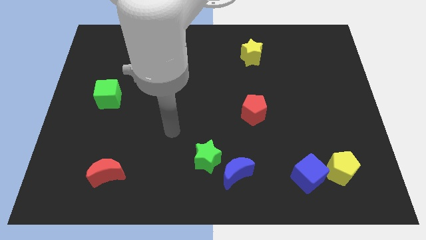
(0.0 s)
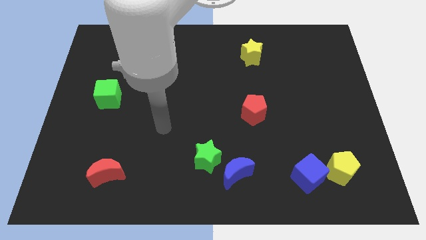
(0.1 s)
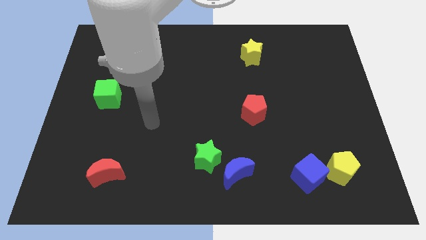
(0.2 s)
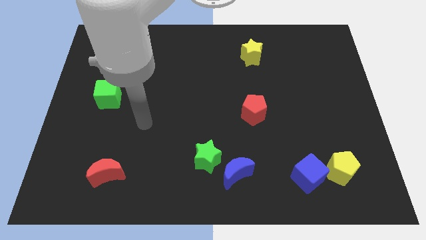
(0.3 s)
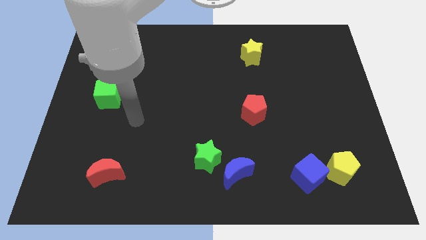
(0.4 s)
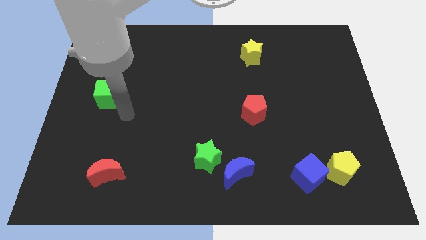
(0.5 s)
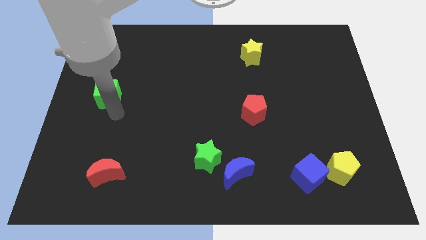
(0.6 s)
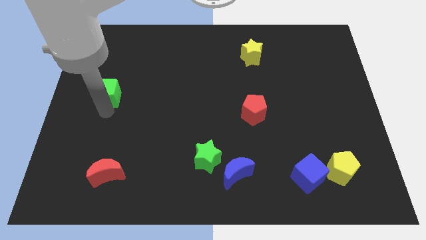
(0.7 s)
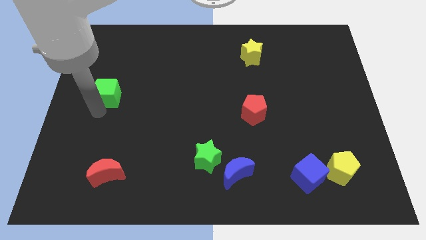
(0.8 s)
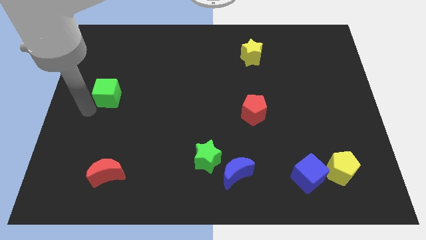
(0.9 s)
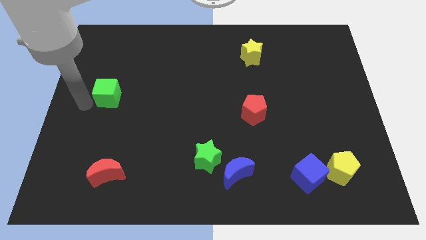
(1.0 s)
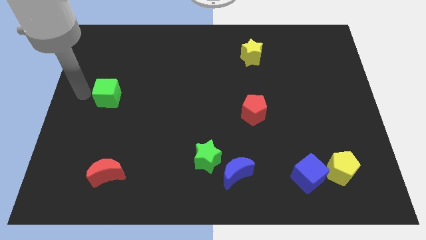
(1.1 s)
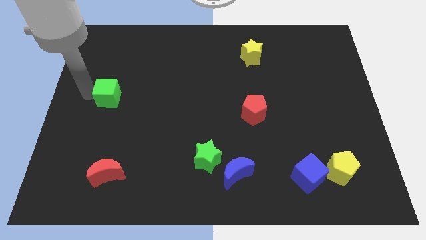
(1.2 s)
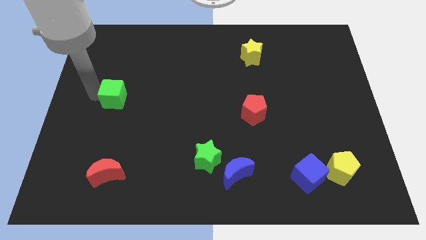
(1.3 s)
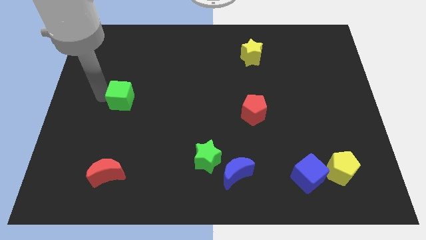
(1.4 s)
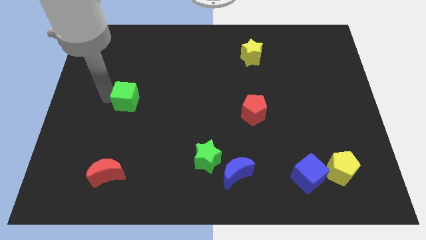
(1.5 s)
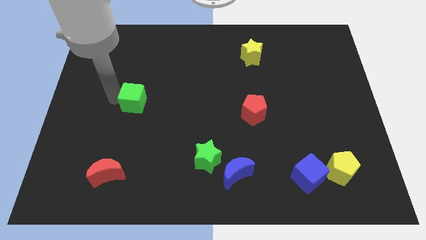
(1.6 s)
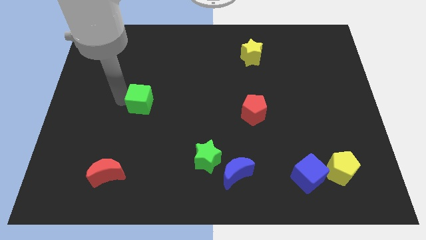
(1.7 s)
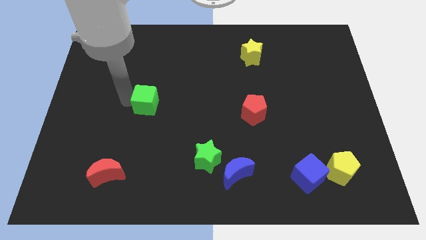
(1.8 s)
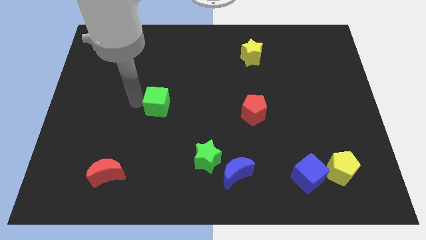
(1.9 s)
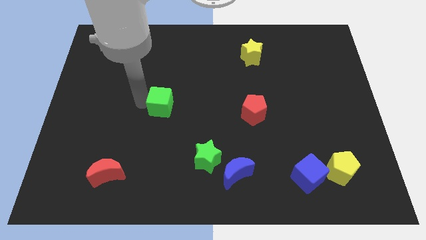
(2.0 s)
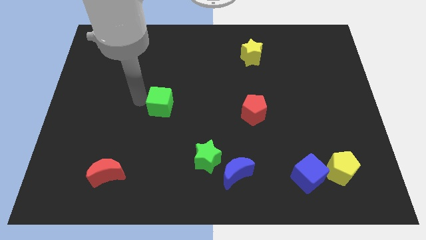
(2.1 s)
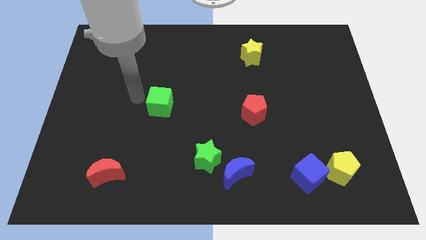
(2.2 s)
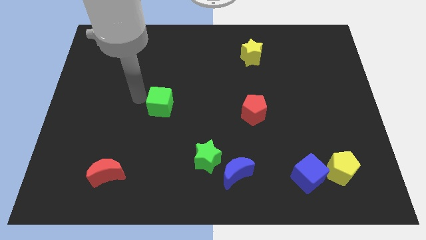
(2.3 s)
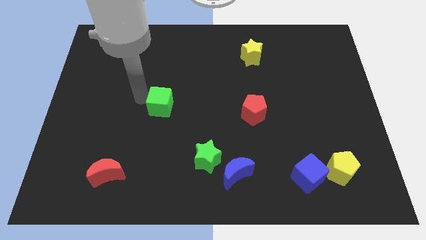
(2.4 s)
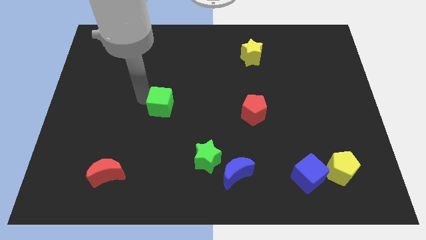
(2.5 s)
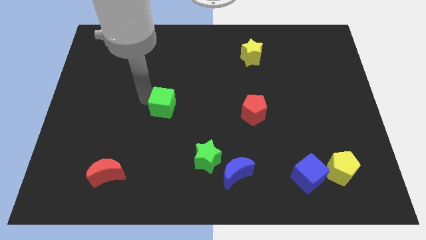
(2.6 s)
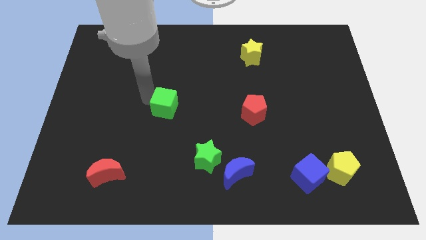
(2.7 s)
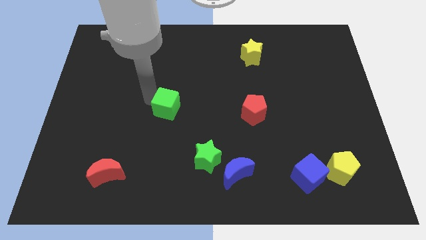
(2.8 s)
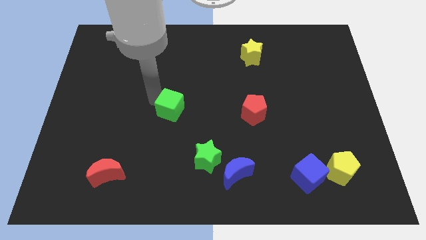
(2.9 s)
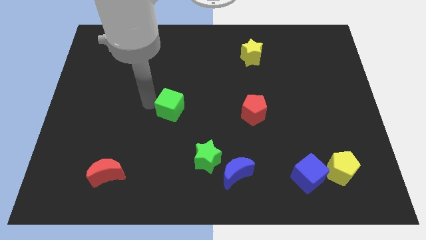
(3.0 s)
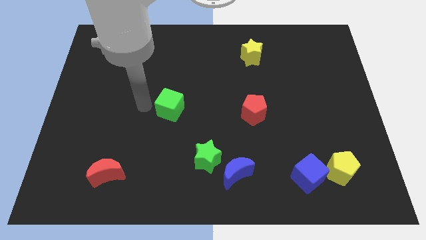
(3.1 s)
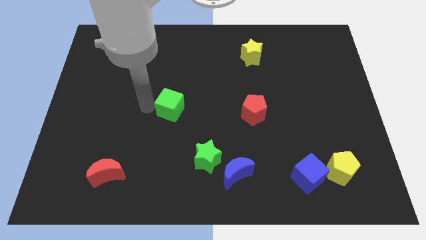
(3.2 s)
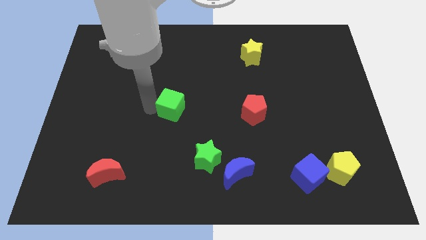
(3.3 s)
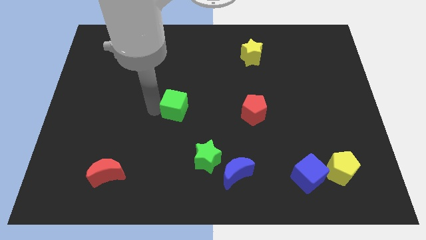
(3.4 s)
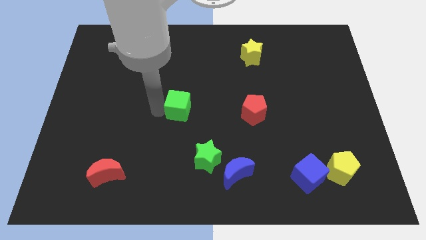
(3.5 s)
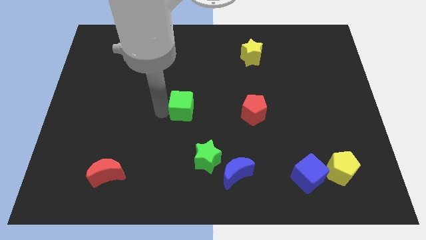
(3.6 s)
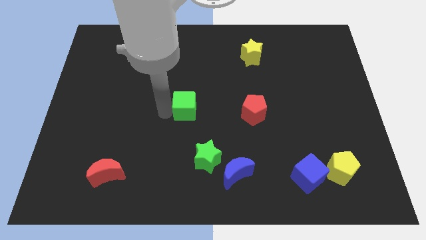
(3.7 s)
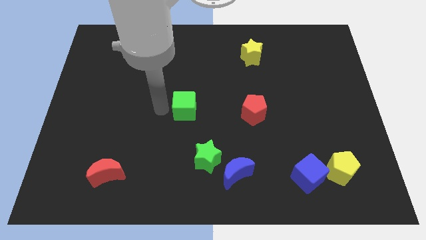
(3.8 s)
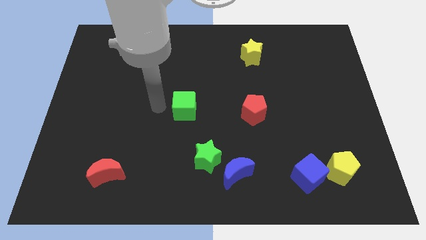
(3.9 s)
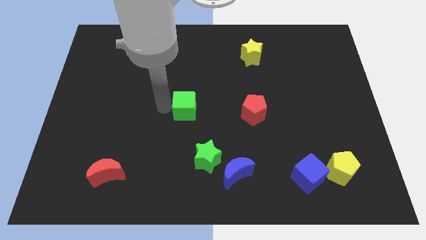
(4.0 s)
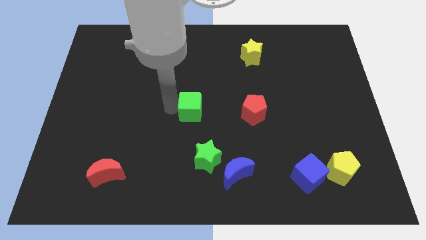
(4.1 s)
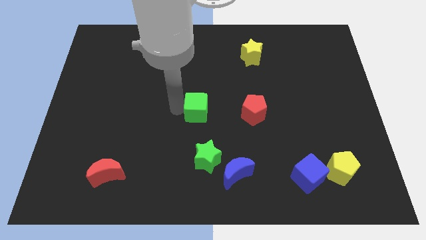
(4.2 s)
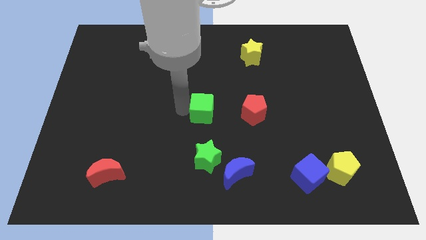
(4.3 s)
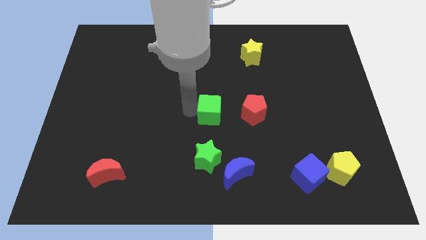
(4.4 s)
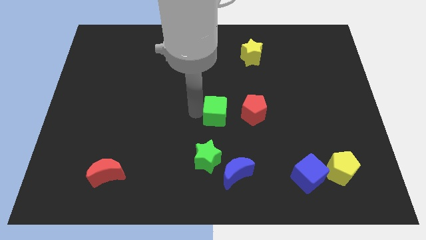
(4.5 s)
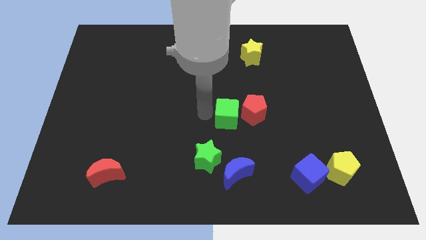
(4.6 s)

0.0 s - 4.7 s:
put the green cube to the red pentagon

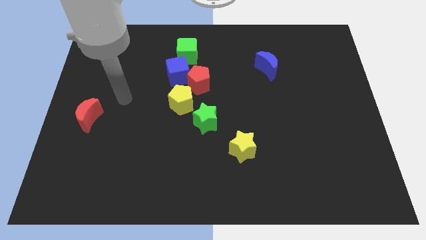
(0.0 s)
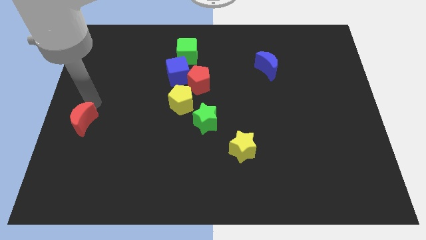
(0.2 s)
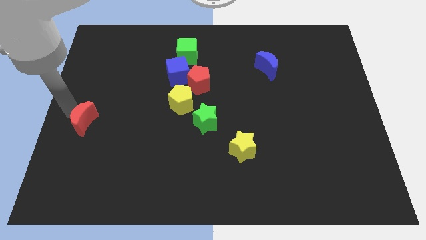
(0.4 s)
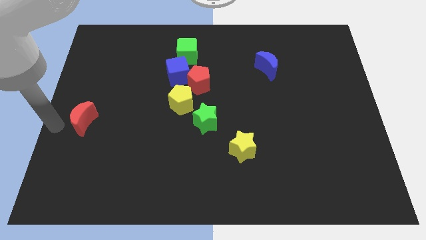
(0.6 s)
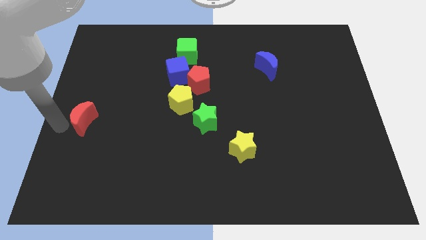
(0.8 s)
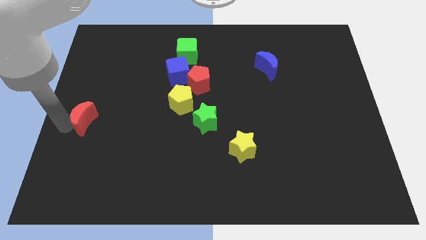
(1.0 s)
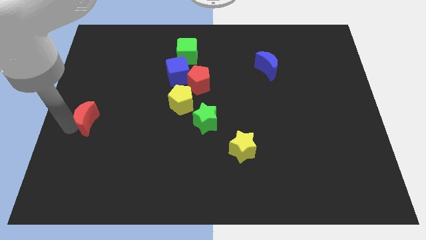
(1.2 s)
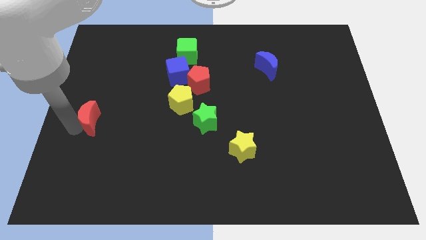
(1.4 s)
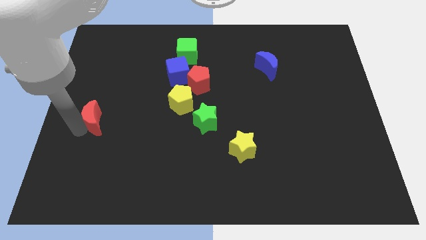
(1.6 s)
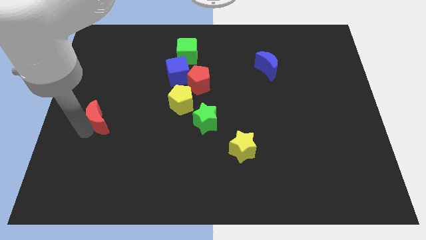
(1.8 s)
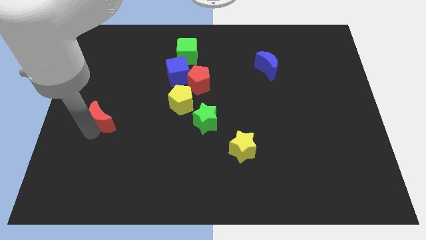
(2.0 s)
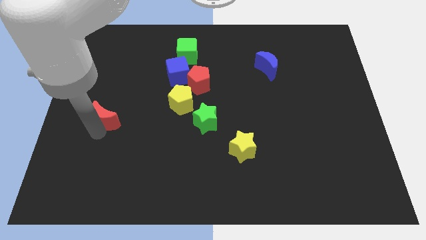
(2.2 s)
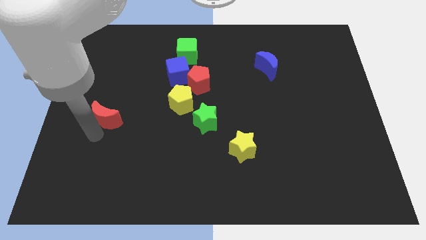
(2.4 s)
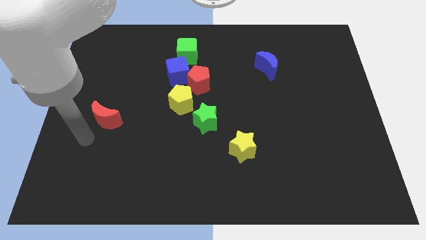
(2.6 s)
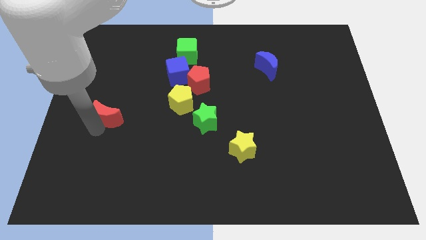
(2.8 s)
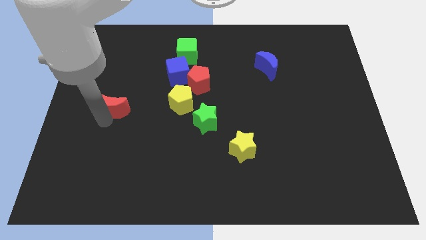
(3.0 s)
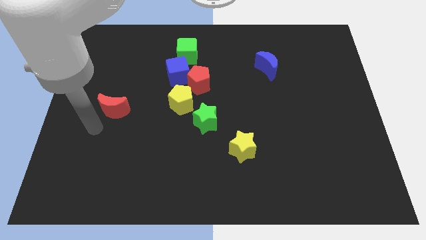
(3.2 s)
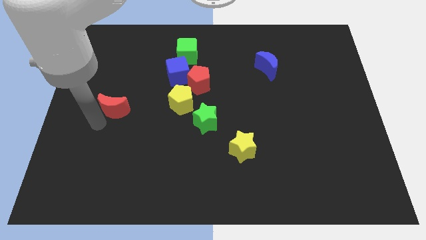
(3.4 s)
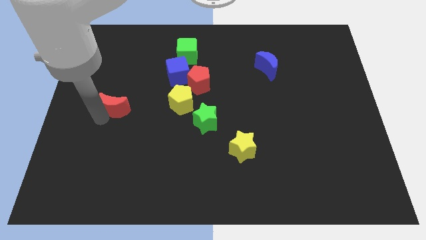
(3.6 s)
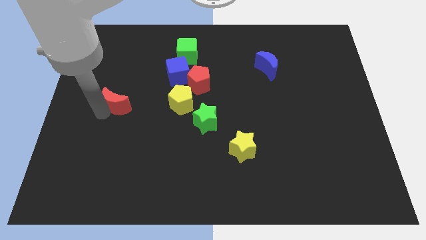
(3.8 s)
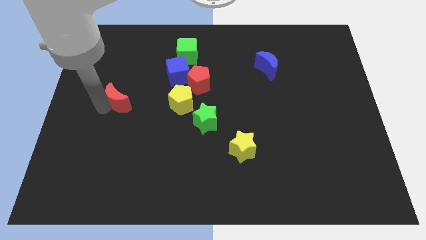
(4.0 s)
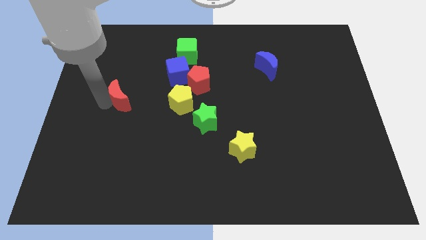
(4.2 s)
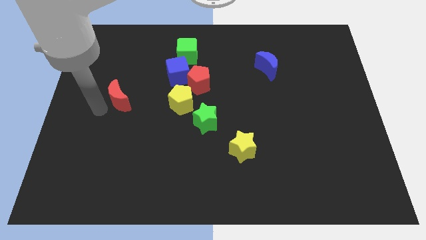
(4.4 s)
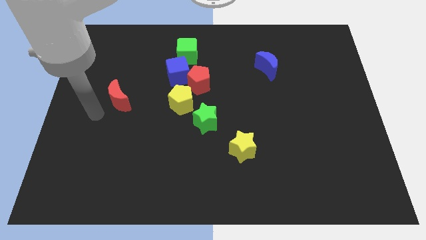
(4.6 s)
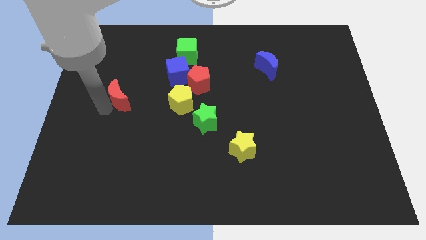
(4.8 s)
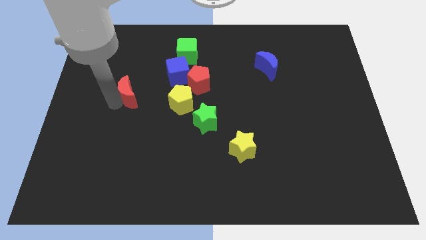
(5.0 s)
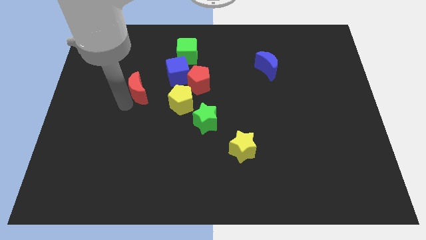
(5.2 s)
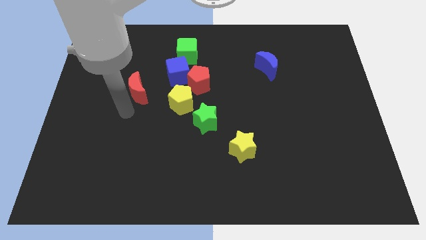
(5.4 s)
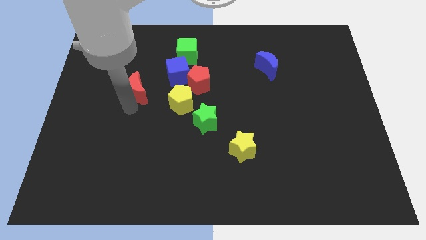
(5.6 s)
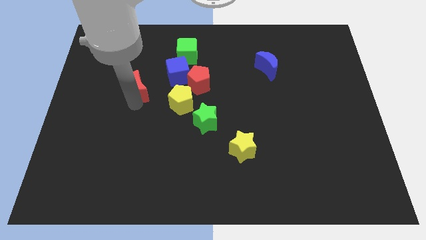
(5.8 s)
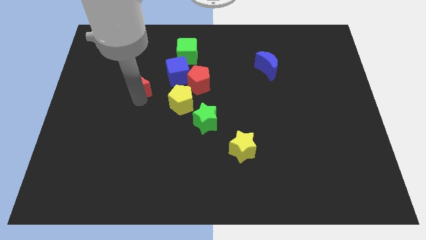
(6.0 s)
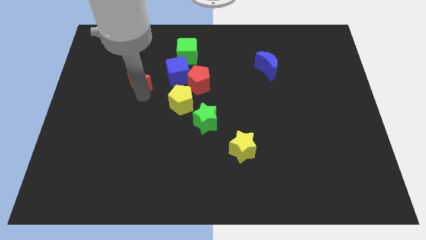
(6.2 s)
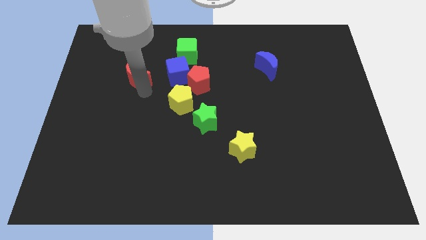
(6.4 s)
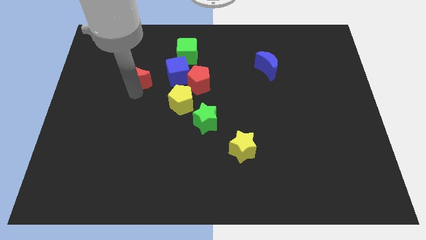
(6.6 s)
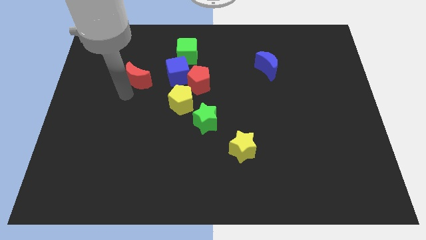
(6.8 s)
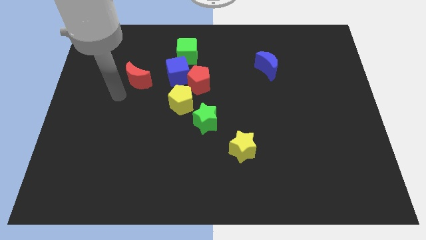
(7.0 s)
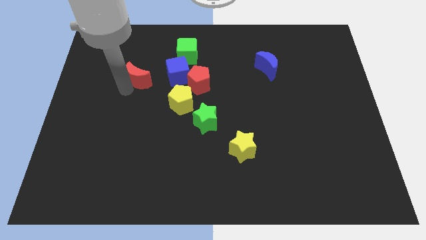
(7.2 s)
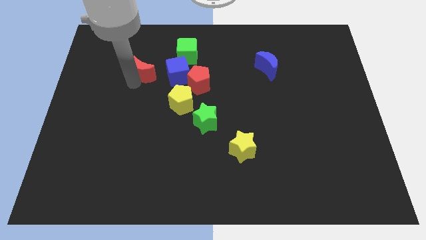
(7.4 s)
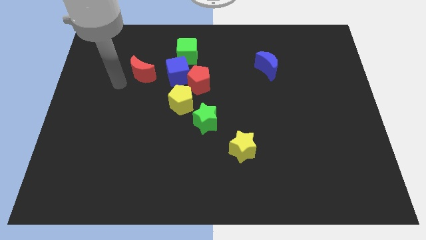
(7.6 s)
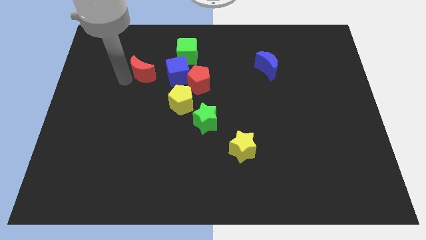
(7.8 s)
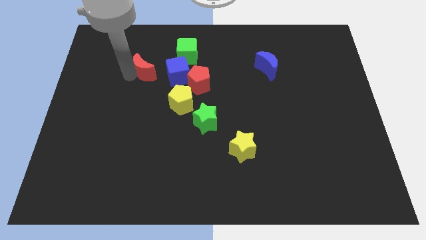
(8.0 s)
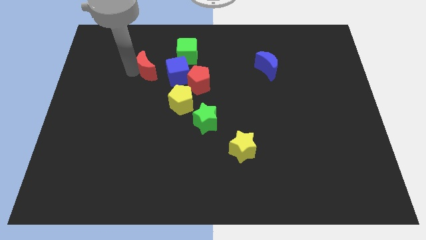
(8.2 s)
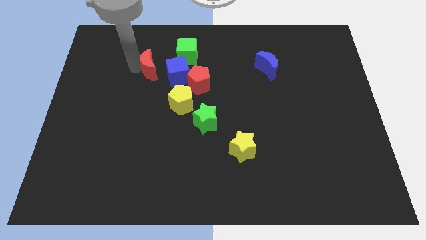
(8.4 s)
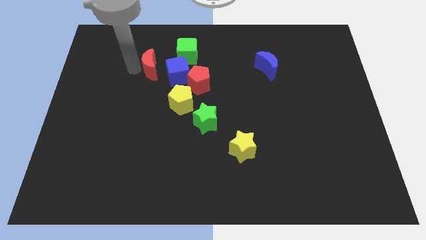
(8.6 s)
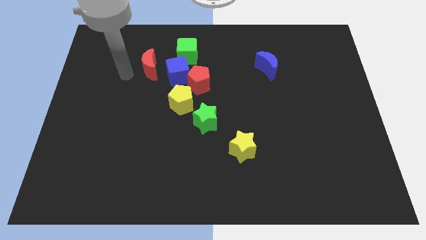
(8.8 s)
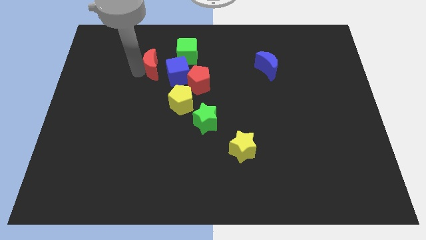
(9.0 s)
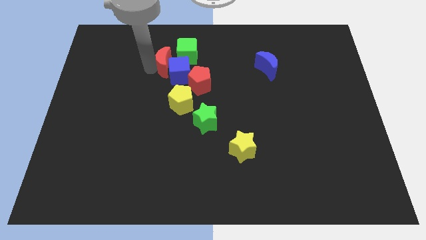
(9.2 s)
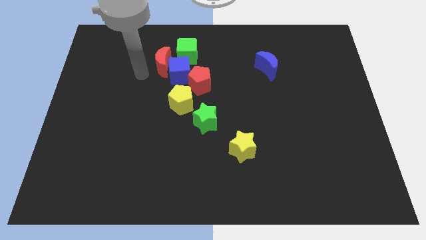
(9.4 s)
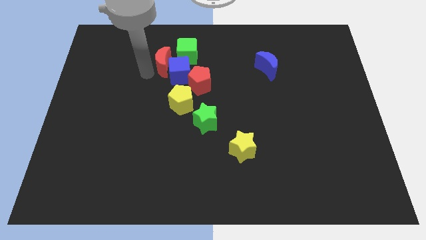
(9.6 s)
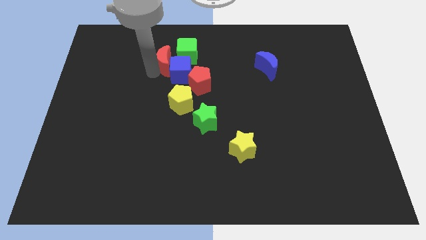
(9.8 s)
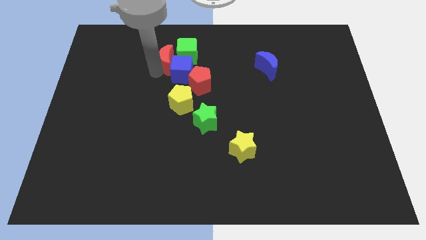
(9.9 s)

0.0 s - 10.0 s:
slide the red moon next to the green cube
